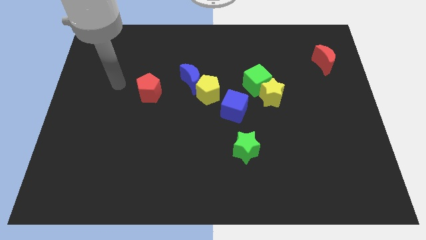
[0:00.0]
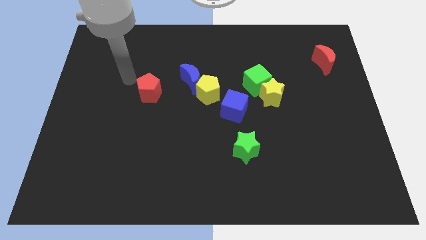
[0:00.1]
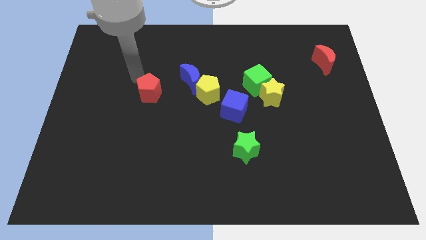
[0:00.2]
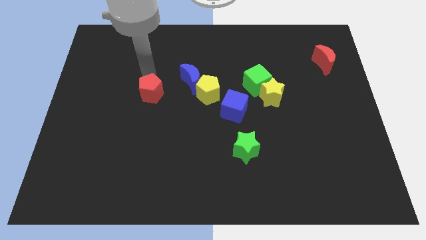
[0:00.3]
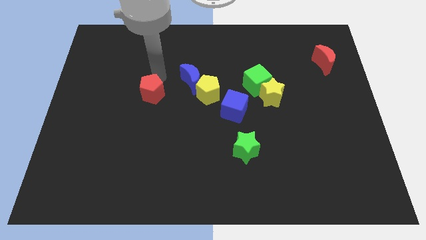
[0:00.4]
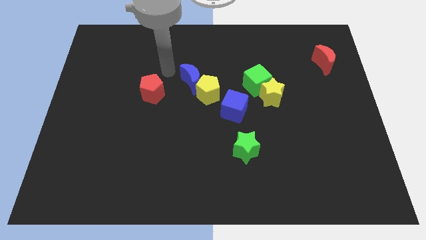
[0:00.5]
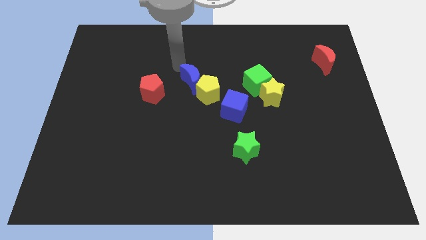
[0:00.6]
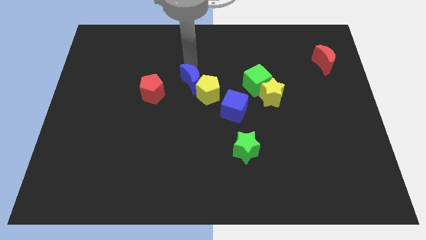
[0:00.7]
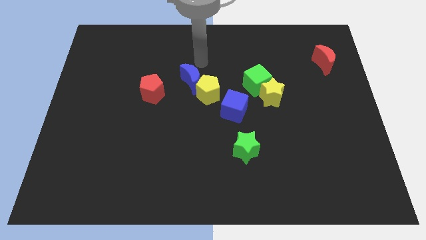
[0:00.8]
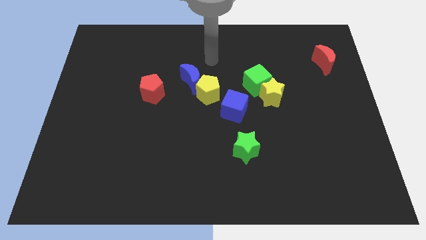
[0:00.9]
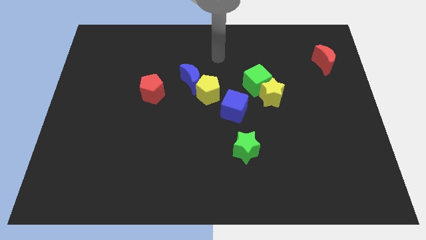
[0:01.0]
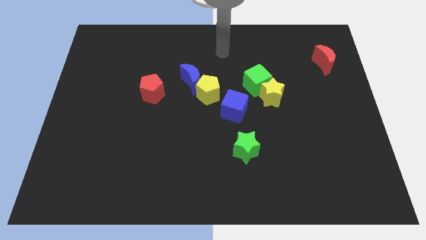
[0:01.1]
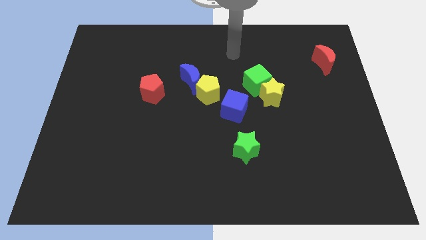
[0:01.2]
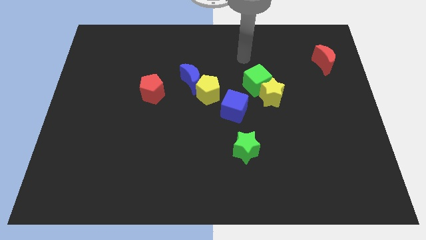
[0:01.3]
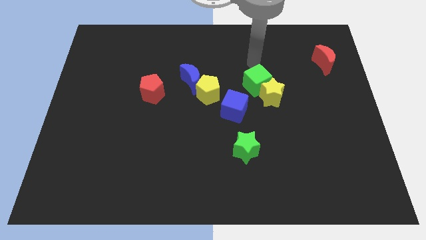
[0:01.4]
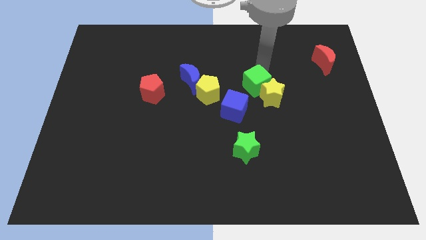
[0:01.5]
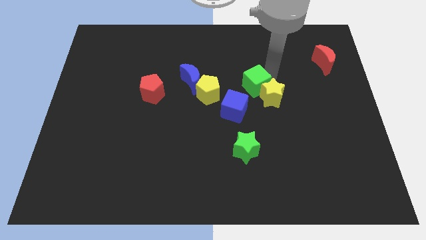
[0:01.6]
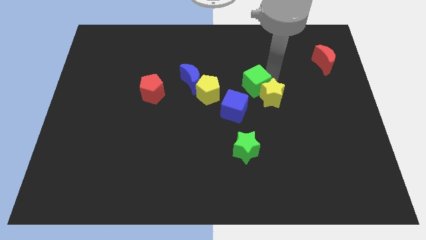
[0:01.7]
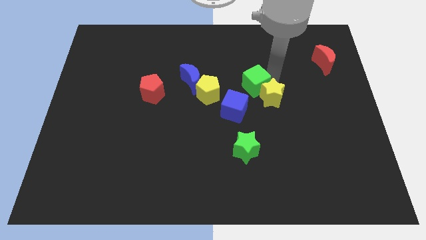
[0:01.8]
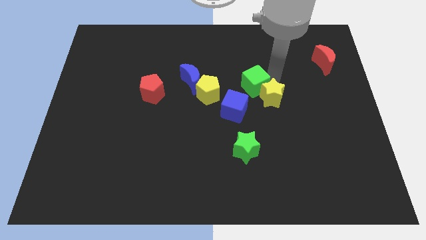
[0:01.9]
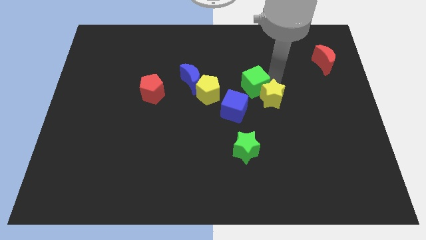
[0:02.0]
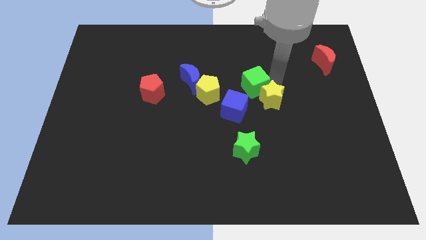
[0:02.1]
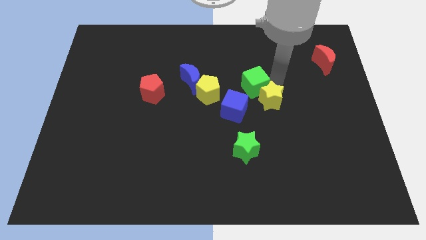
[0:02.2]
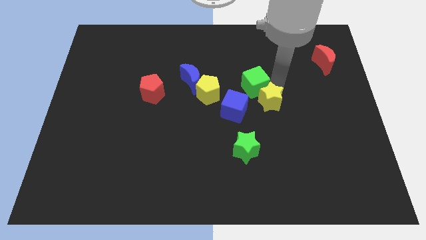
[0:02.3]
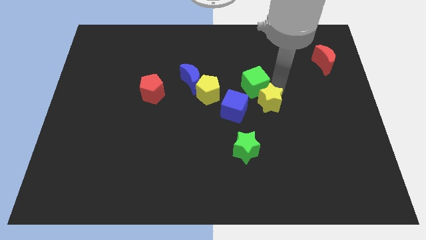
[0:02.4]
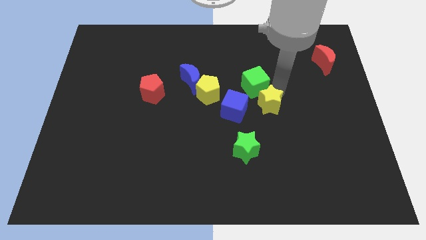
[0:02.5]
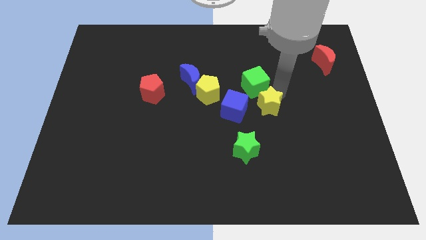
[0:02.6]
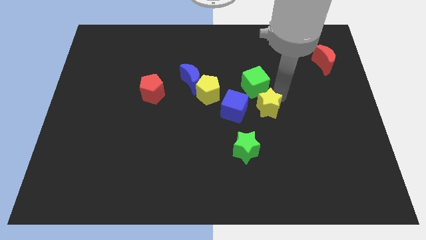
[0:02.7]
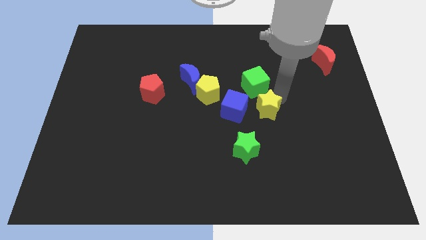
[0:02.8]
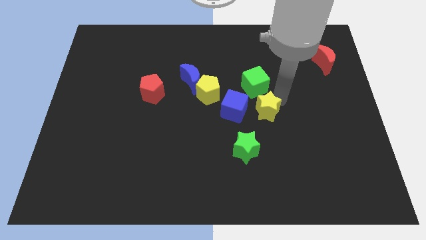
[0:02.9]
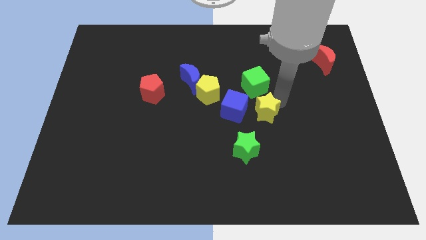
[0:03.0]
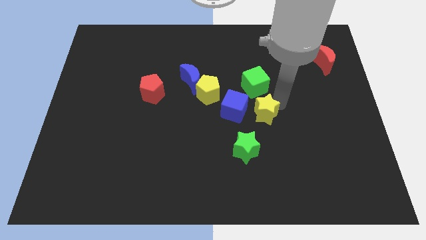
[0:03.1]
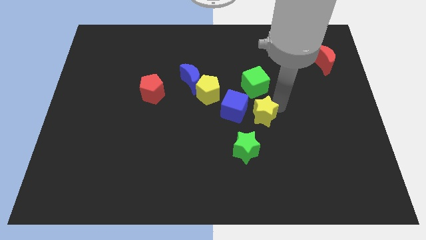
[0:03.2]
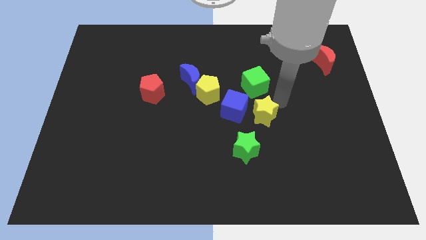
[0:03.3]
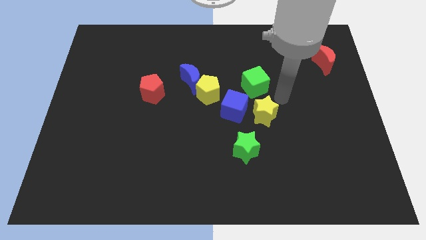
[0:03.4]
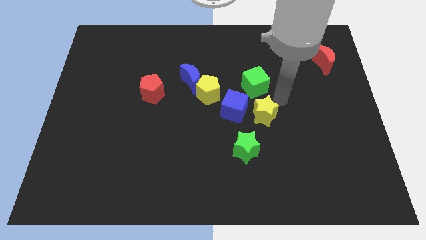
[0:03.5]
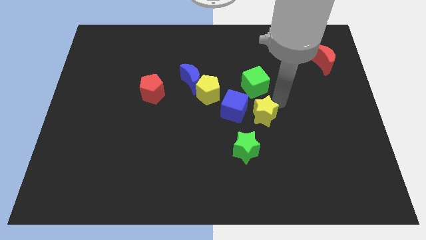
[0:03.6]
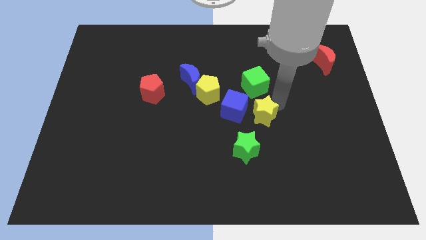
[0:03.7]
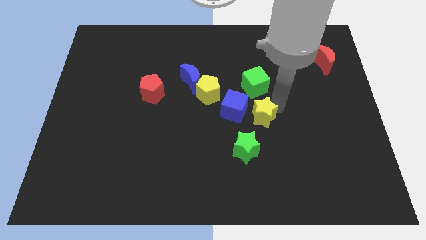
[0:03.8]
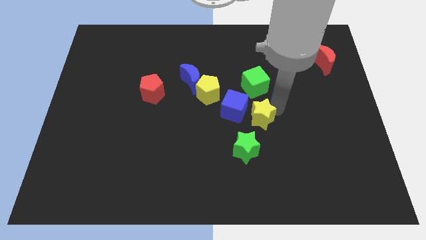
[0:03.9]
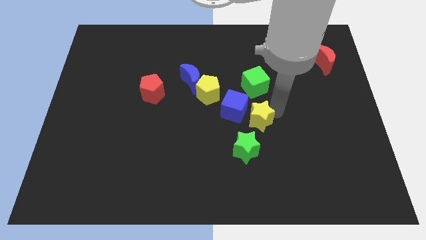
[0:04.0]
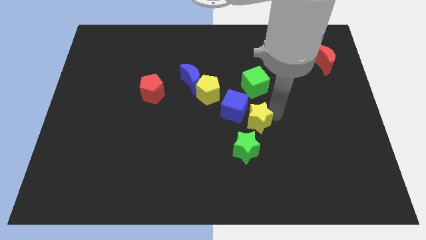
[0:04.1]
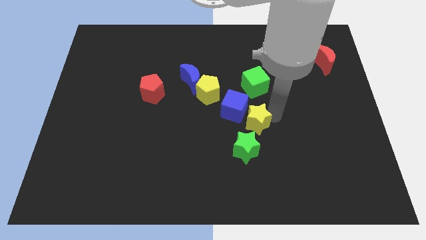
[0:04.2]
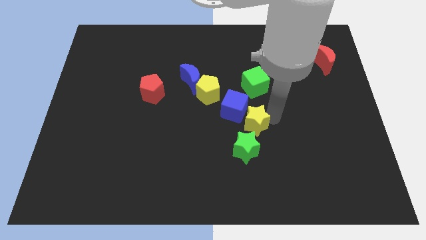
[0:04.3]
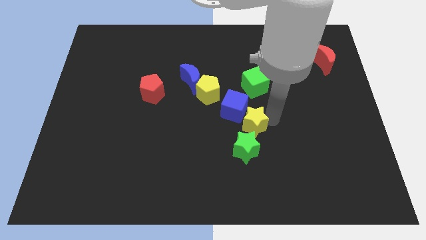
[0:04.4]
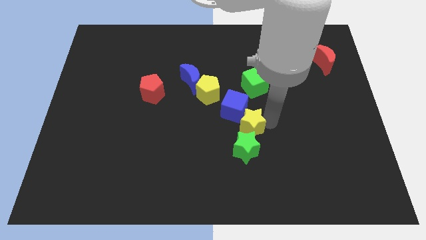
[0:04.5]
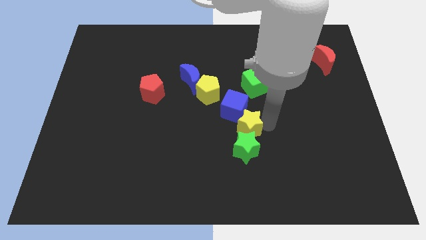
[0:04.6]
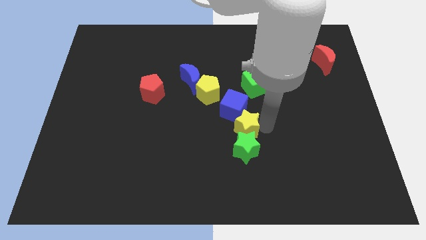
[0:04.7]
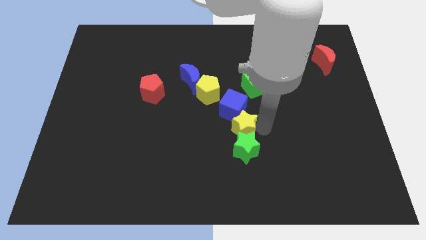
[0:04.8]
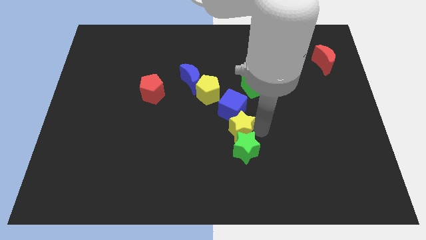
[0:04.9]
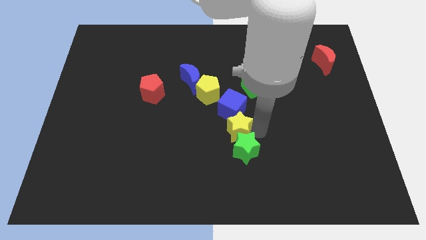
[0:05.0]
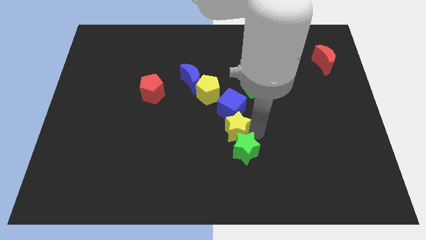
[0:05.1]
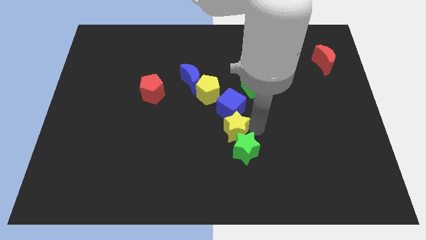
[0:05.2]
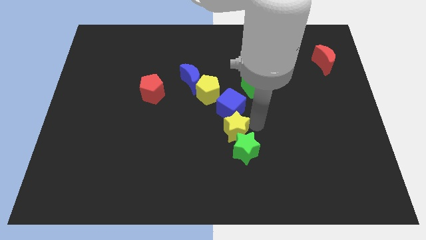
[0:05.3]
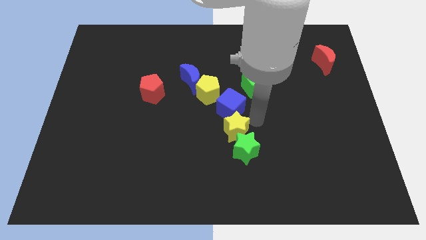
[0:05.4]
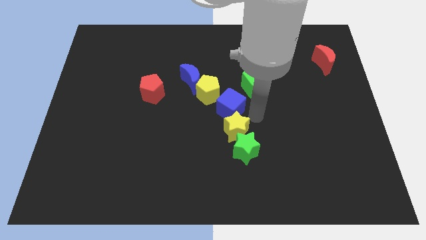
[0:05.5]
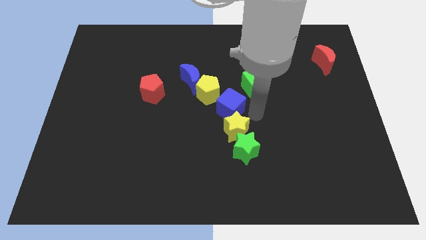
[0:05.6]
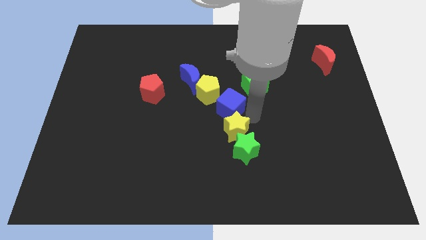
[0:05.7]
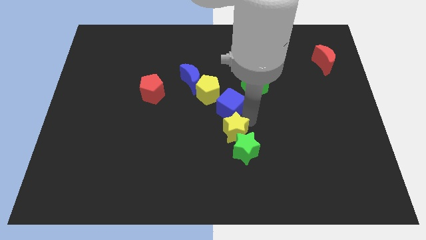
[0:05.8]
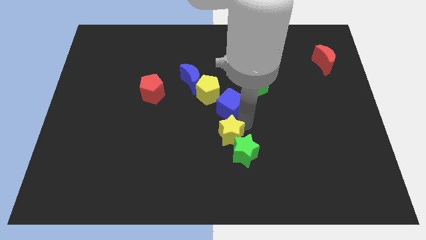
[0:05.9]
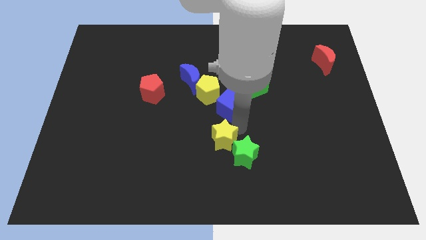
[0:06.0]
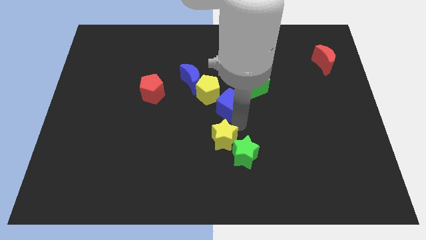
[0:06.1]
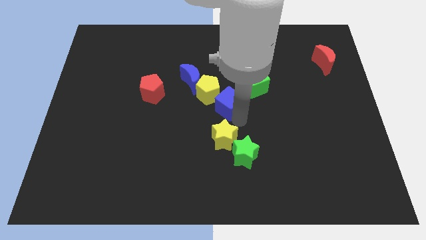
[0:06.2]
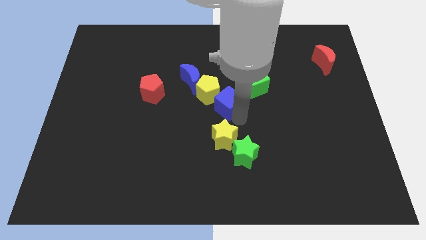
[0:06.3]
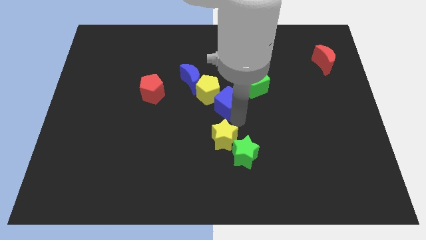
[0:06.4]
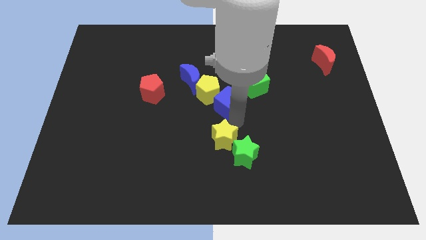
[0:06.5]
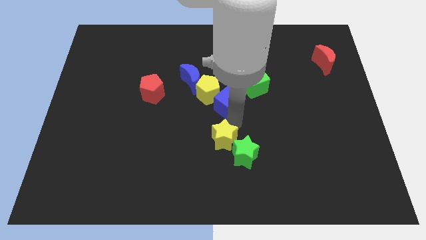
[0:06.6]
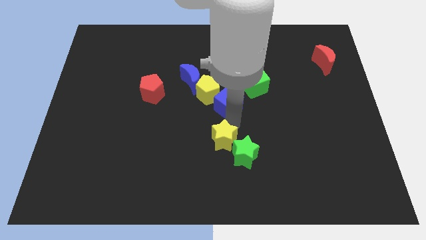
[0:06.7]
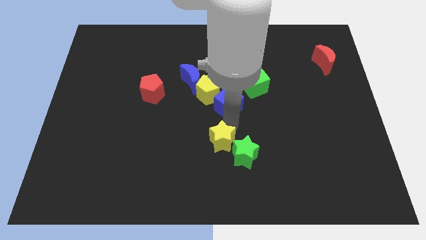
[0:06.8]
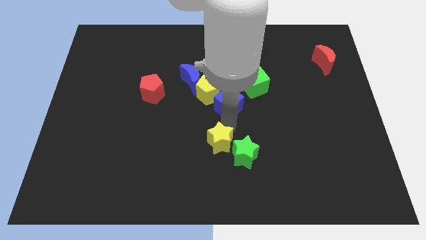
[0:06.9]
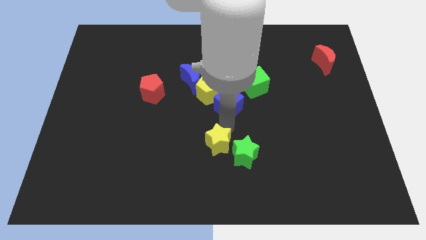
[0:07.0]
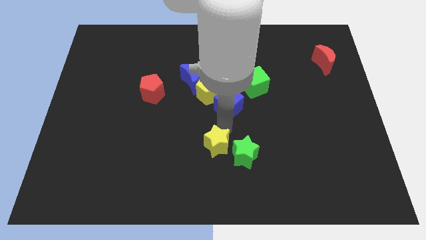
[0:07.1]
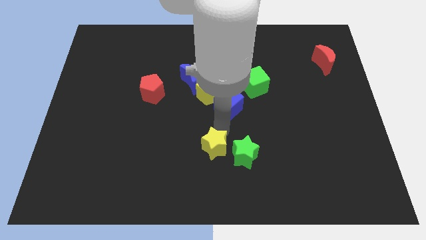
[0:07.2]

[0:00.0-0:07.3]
move the yellow star downwards and to the left

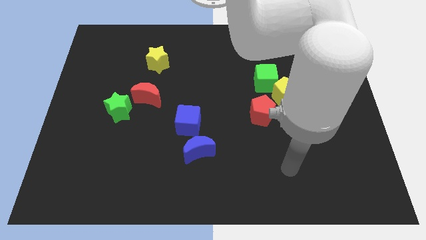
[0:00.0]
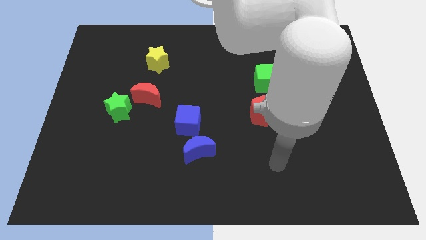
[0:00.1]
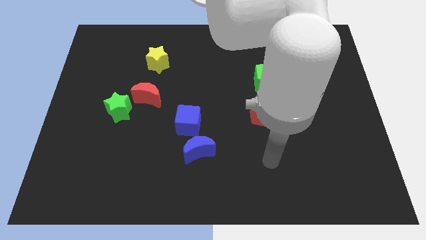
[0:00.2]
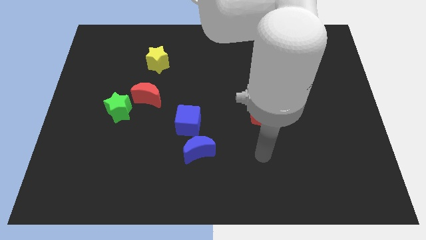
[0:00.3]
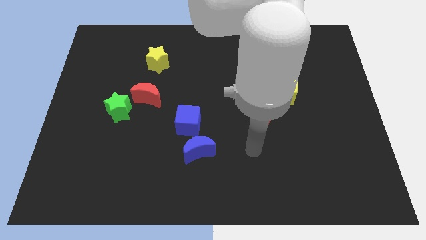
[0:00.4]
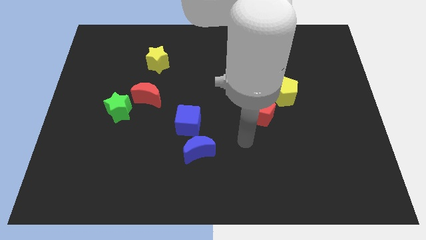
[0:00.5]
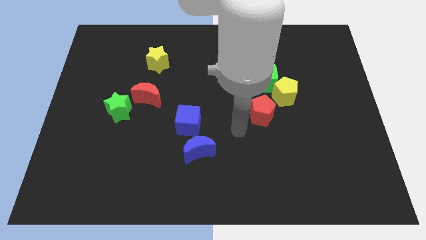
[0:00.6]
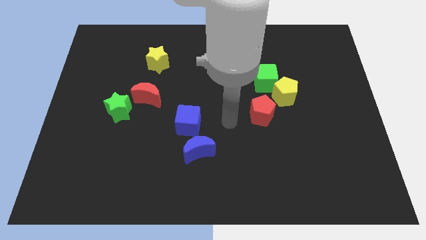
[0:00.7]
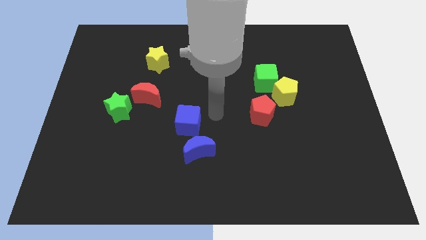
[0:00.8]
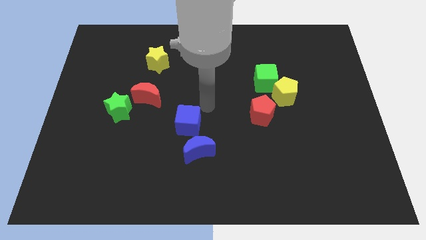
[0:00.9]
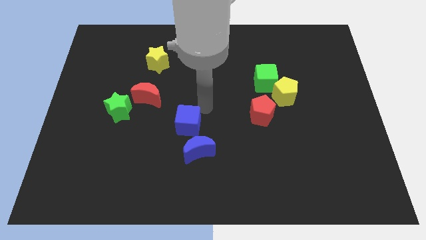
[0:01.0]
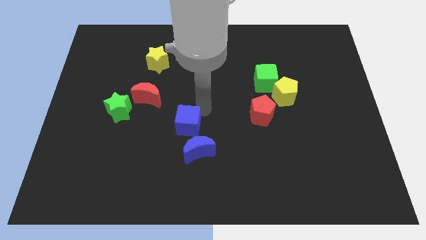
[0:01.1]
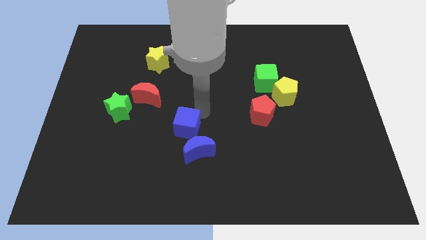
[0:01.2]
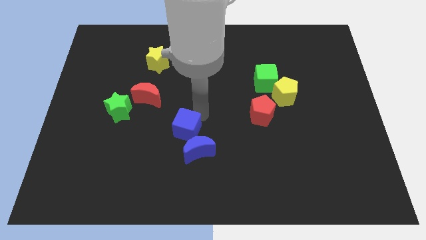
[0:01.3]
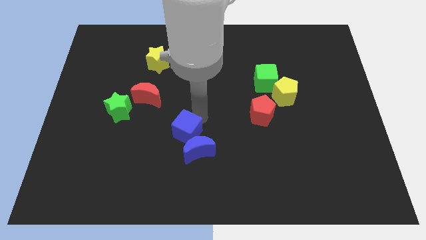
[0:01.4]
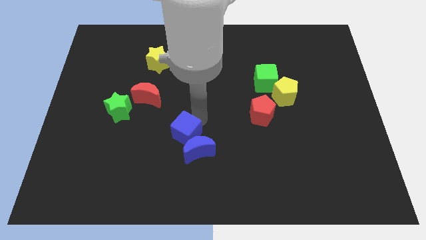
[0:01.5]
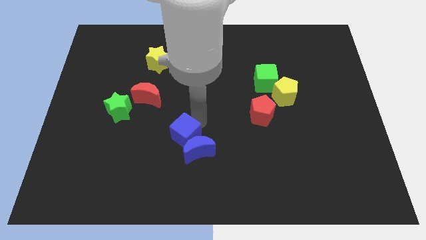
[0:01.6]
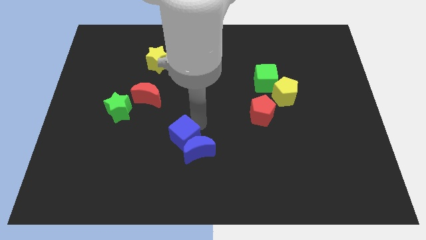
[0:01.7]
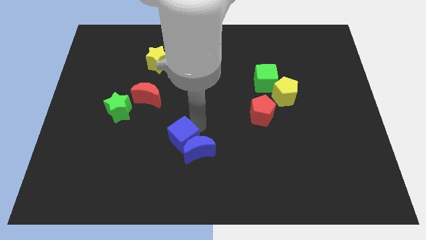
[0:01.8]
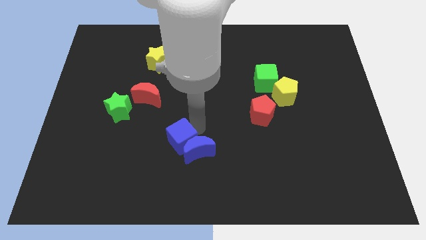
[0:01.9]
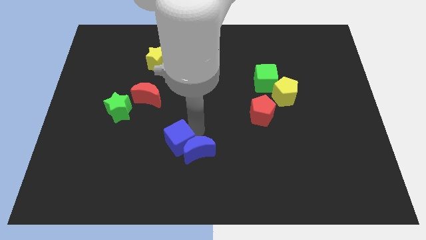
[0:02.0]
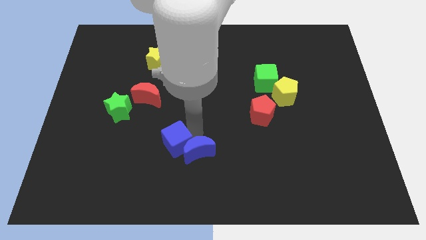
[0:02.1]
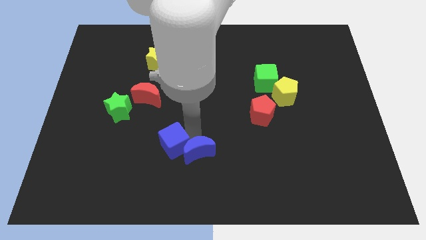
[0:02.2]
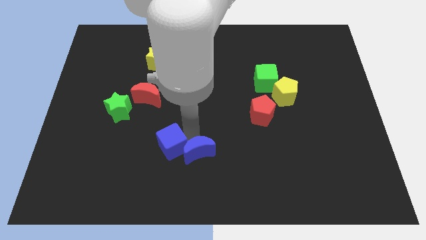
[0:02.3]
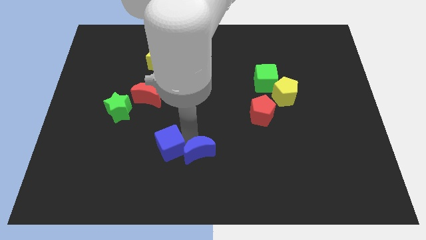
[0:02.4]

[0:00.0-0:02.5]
slightly push the blue cube down and then left
